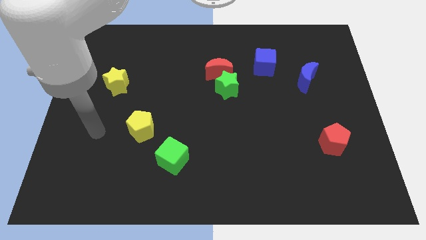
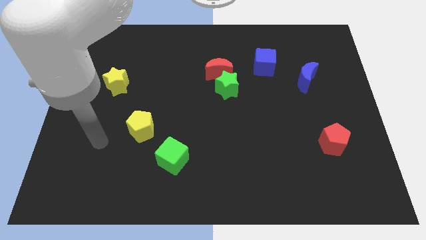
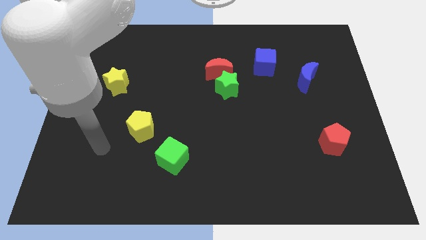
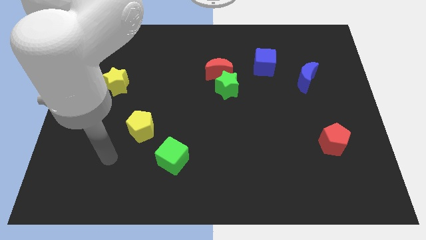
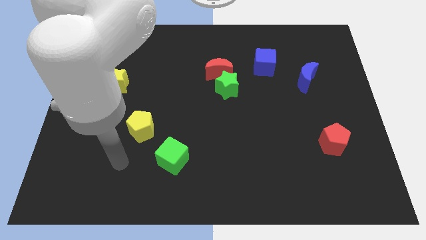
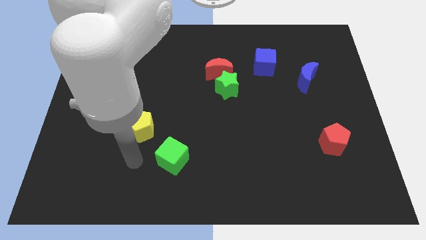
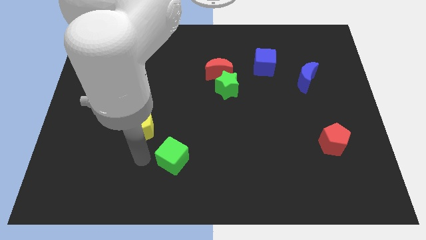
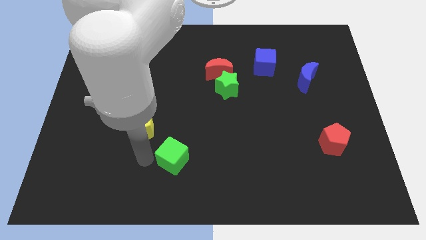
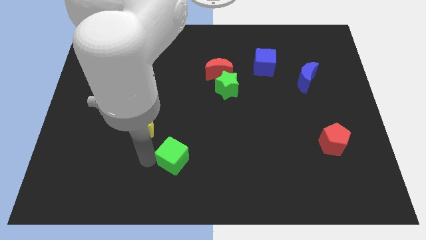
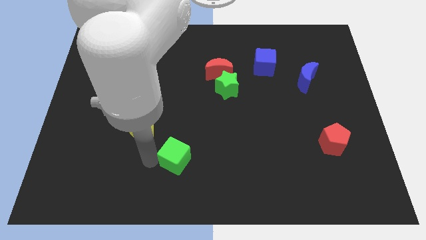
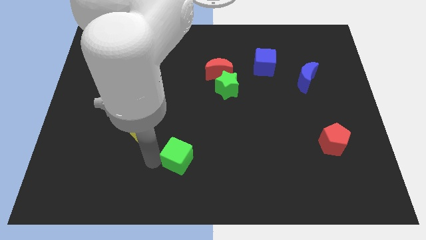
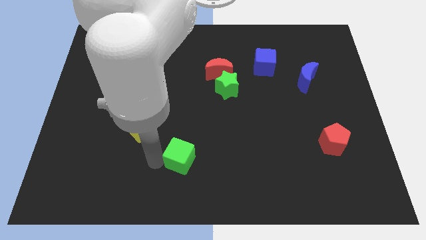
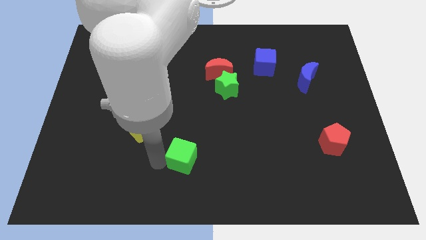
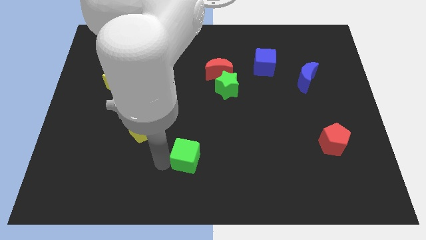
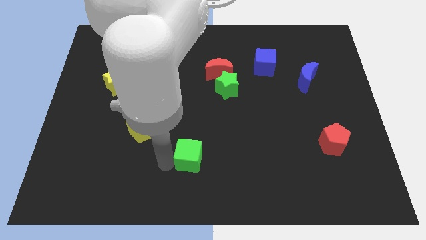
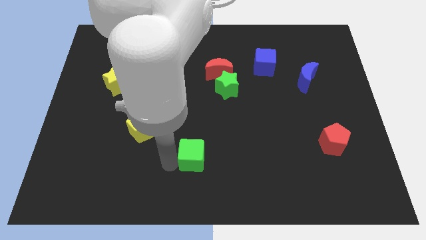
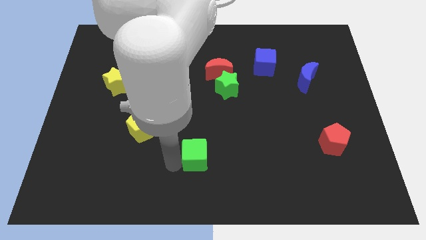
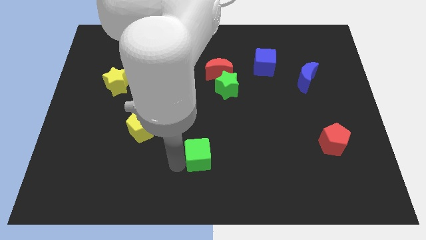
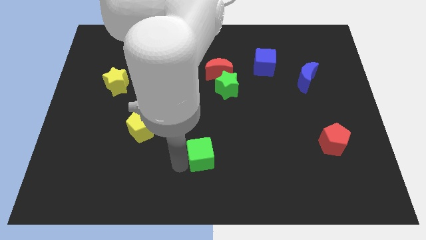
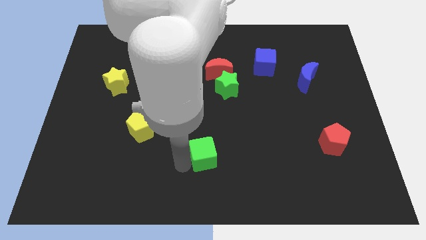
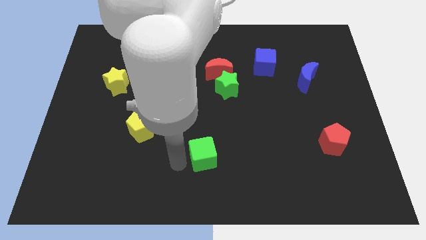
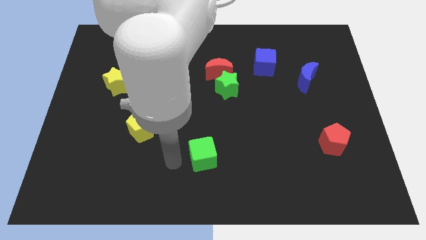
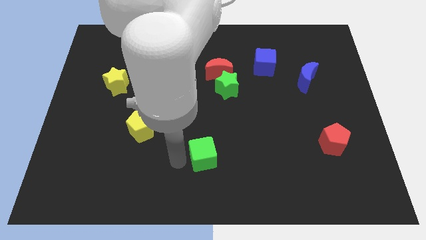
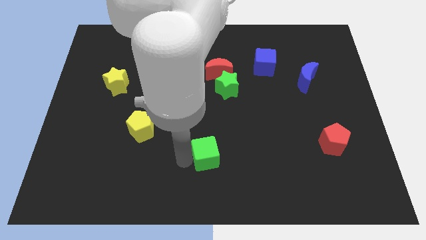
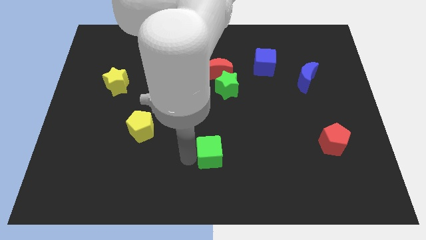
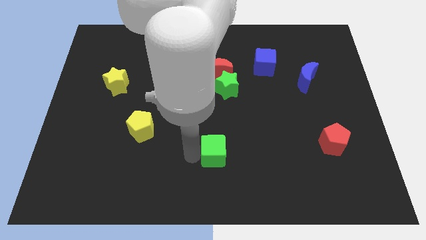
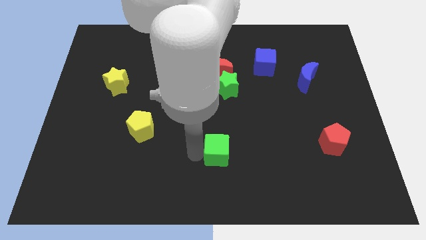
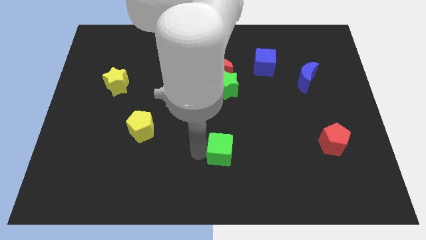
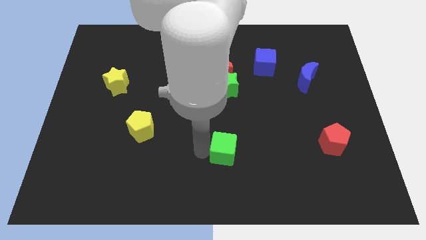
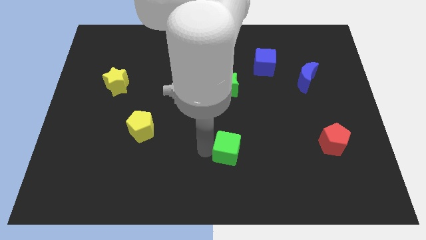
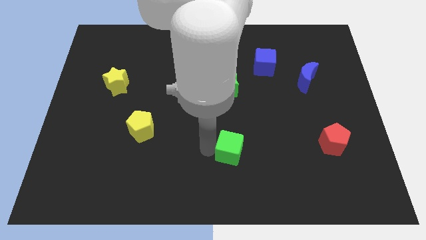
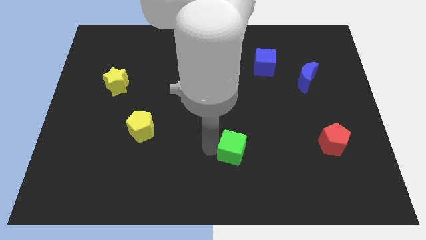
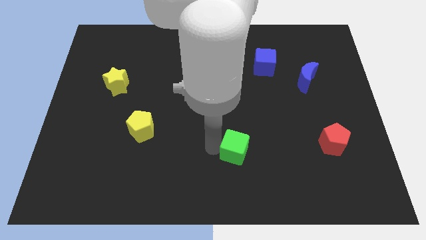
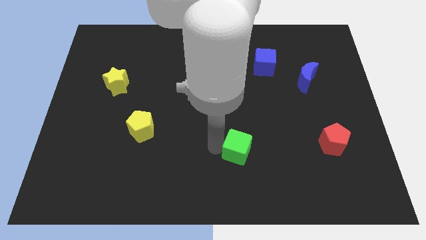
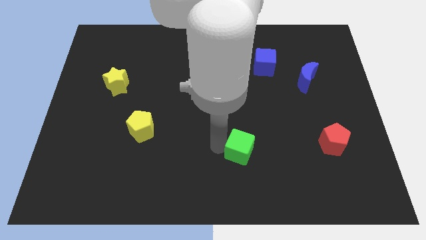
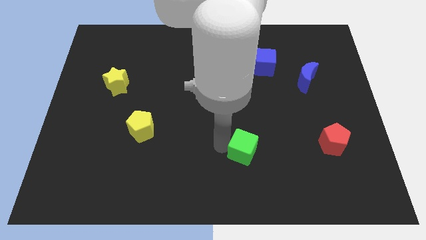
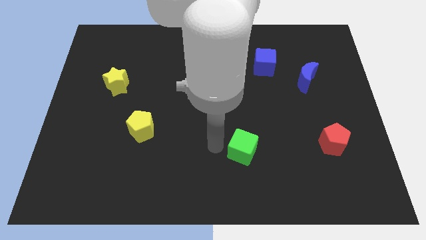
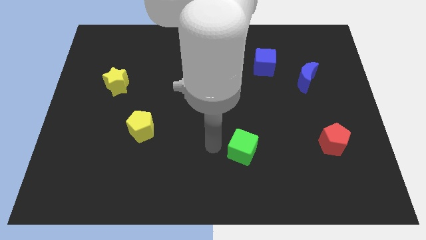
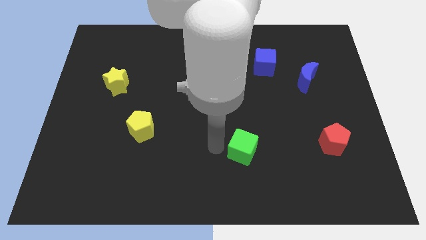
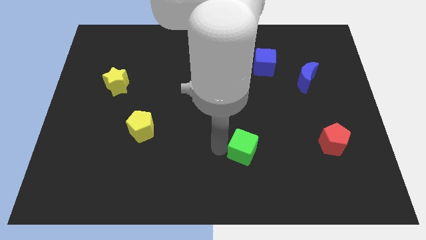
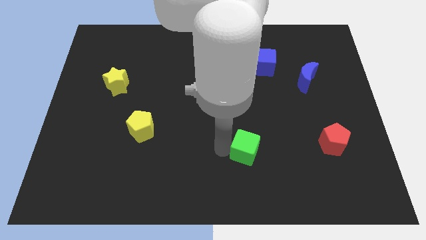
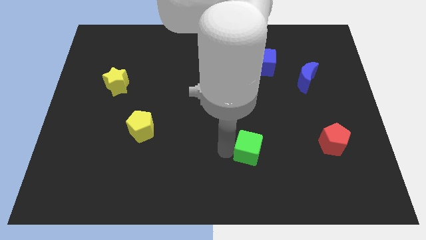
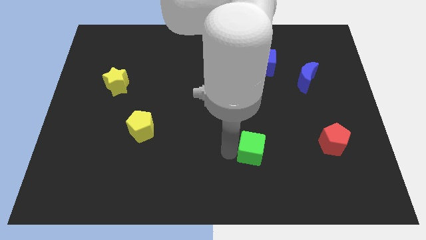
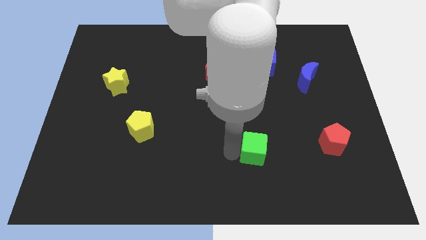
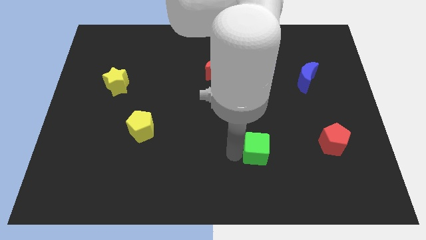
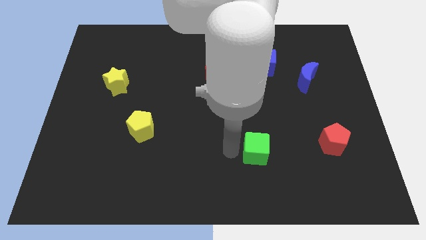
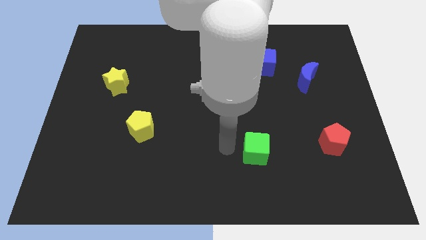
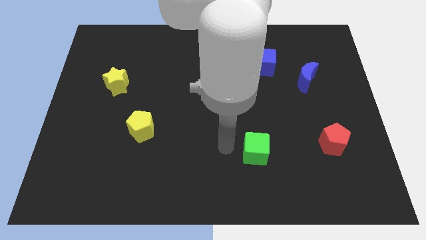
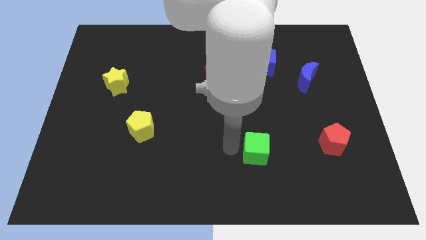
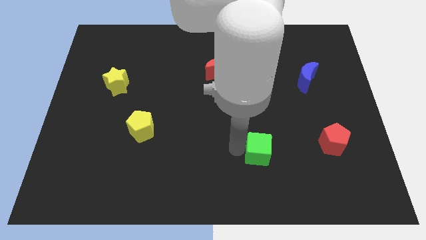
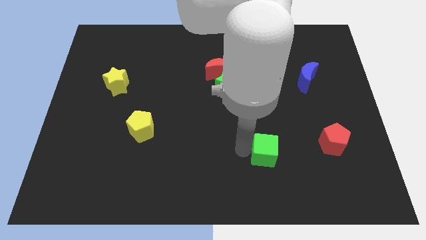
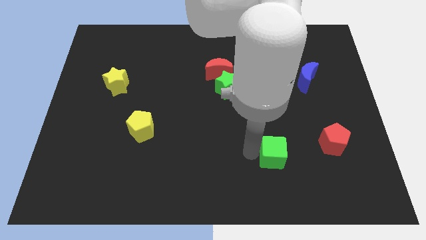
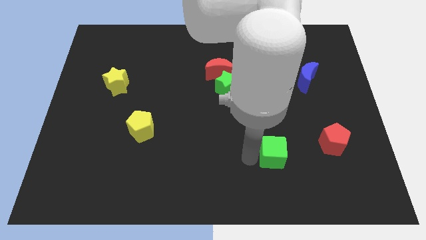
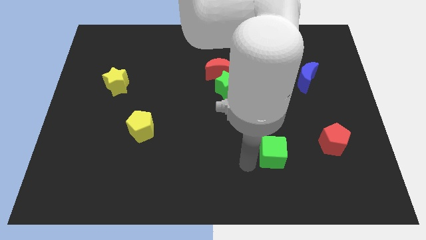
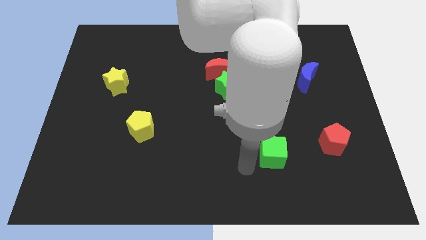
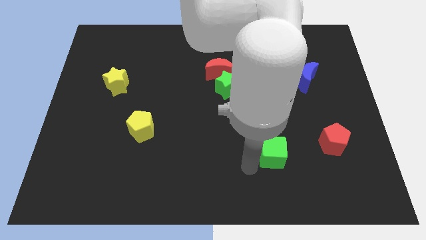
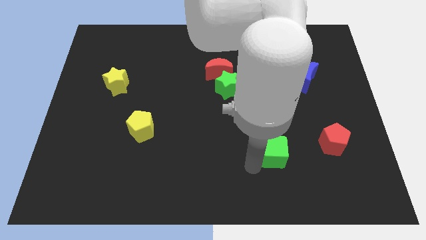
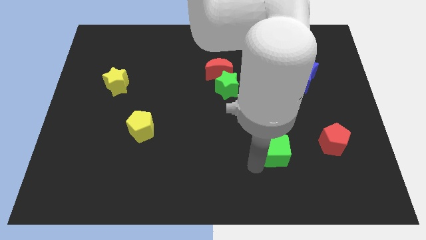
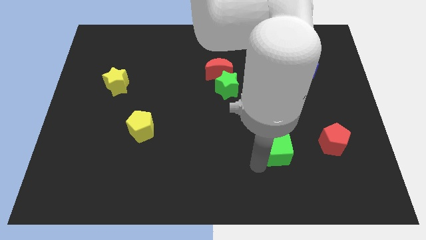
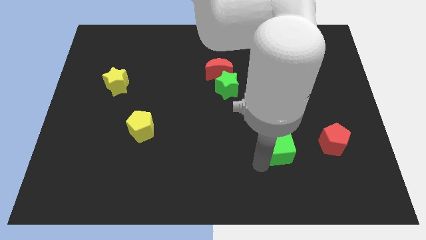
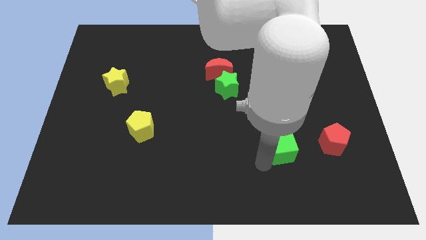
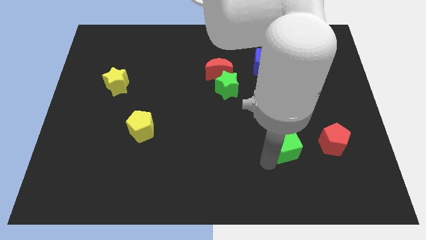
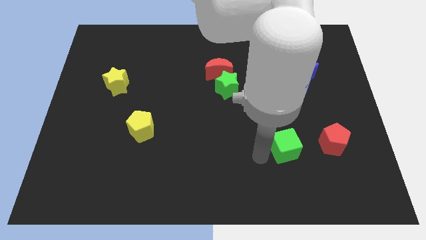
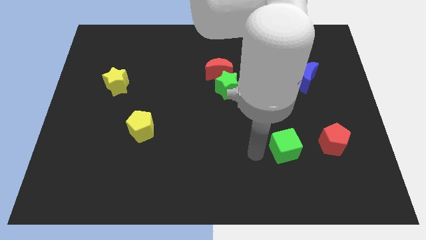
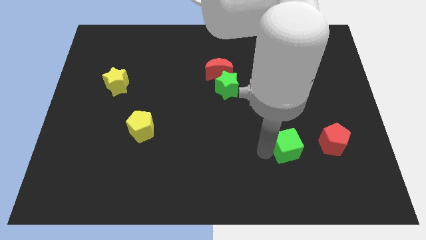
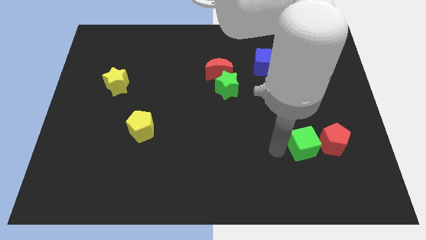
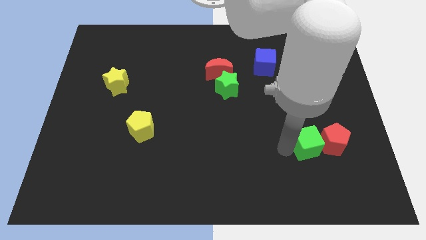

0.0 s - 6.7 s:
put the green cube close to the red pentagon
